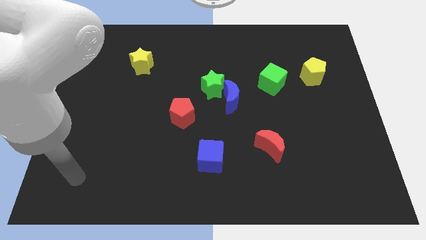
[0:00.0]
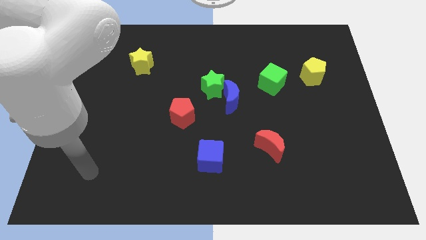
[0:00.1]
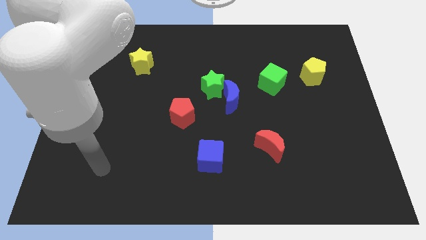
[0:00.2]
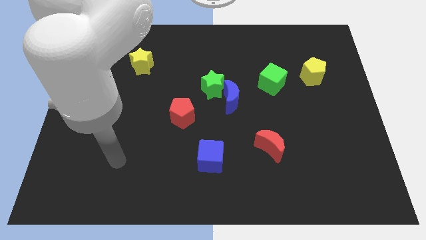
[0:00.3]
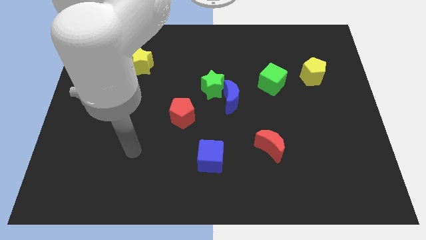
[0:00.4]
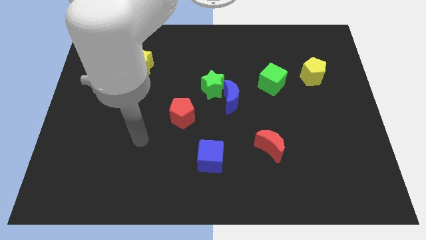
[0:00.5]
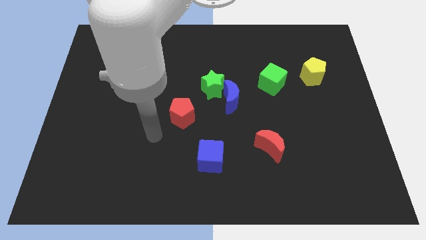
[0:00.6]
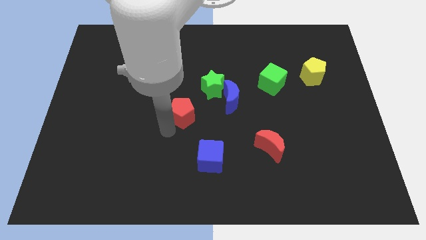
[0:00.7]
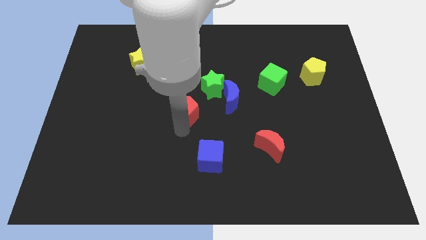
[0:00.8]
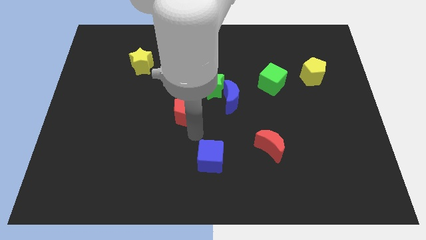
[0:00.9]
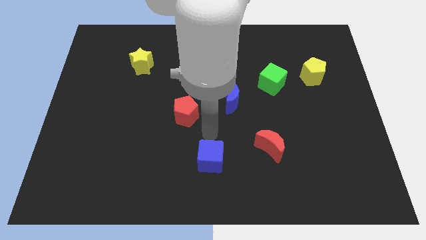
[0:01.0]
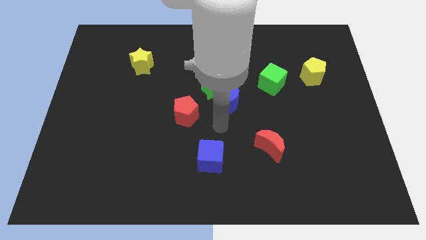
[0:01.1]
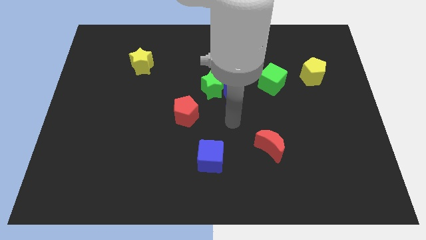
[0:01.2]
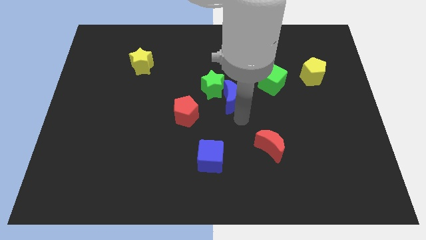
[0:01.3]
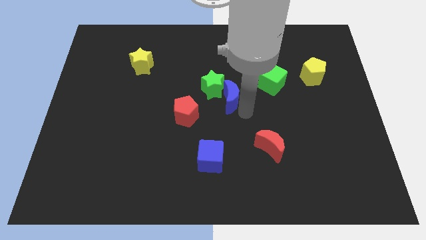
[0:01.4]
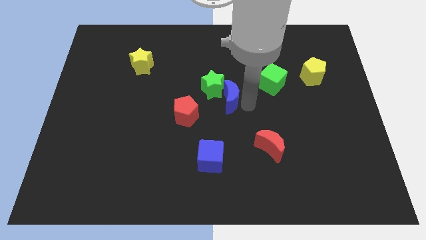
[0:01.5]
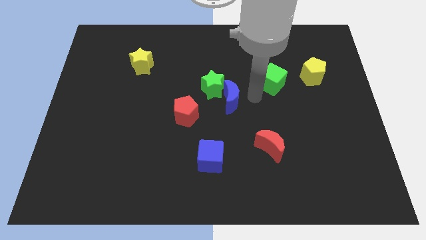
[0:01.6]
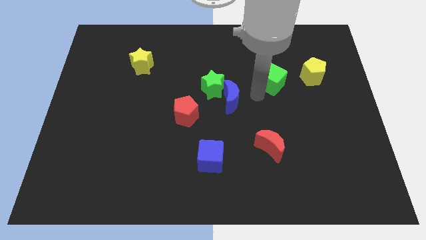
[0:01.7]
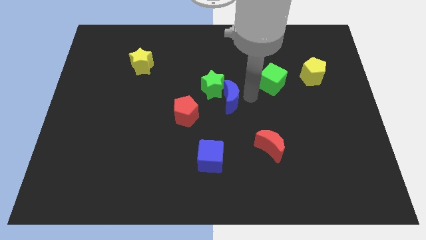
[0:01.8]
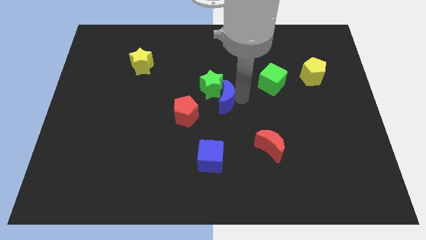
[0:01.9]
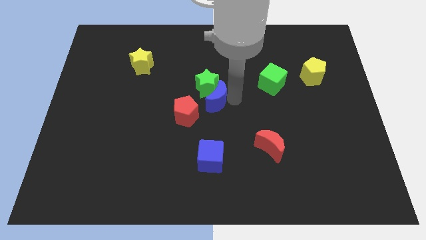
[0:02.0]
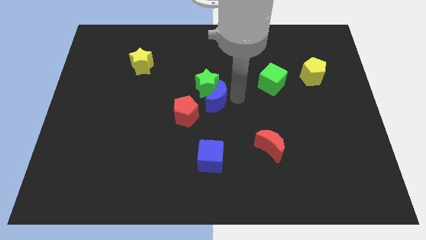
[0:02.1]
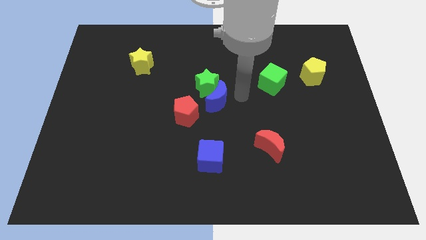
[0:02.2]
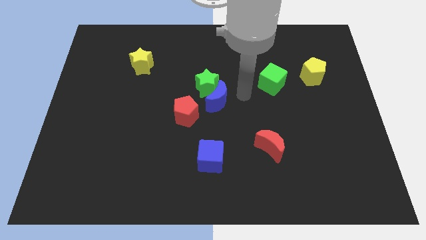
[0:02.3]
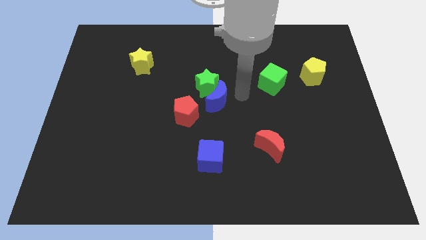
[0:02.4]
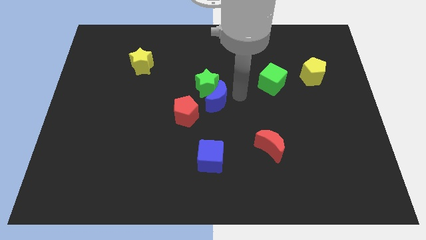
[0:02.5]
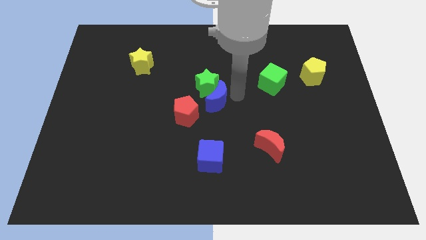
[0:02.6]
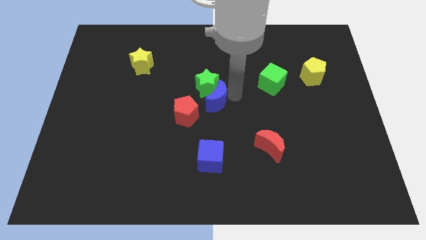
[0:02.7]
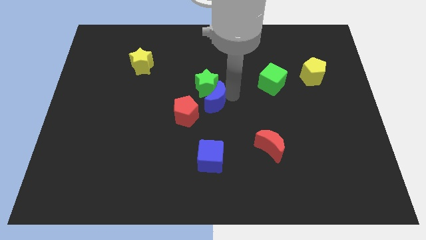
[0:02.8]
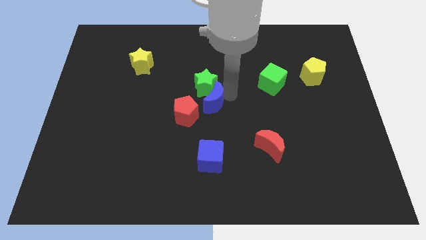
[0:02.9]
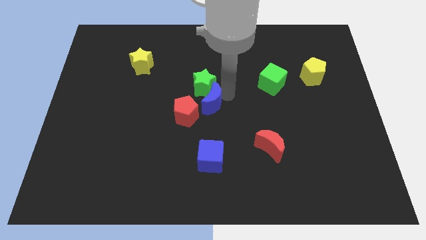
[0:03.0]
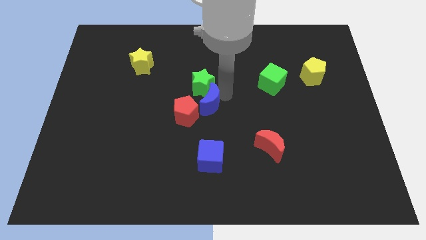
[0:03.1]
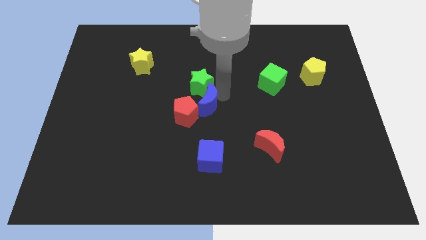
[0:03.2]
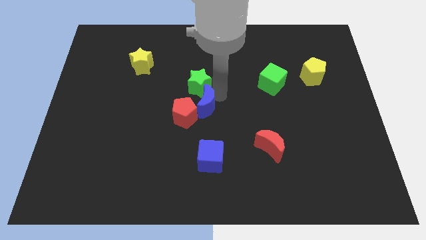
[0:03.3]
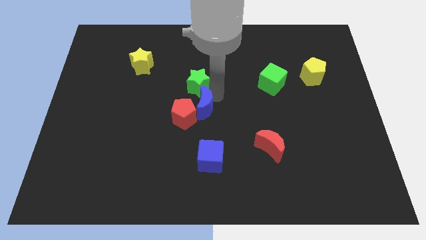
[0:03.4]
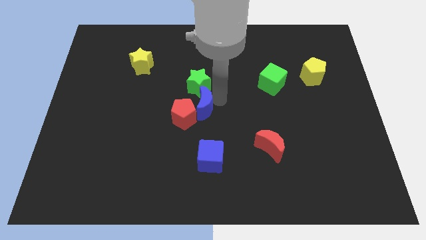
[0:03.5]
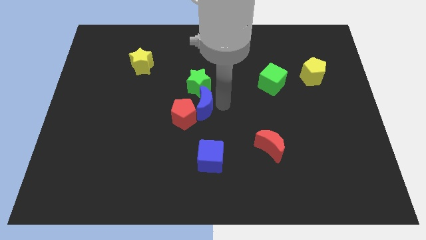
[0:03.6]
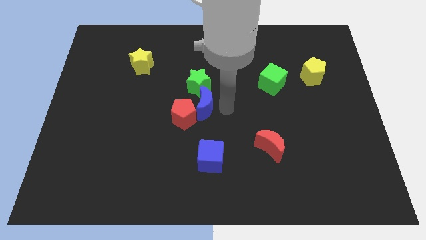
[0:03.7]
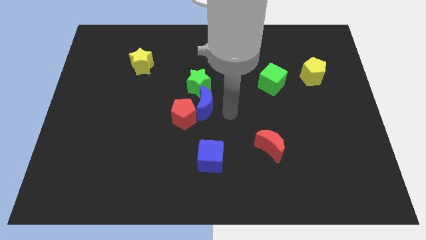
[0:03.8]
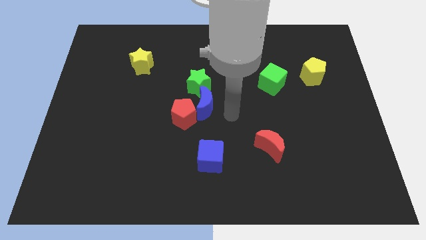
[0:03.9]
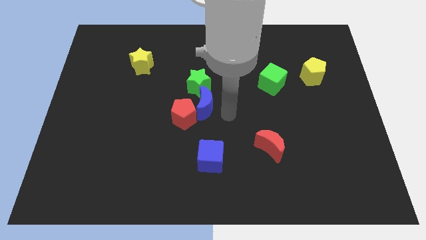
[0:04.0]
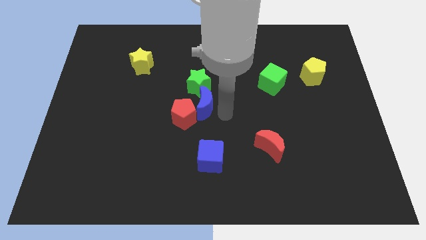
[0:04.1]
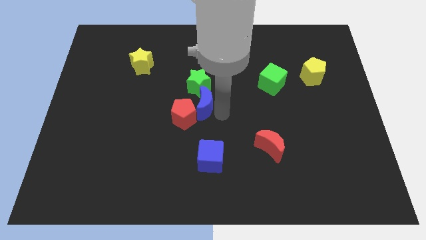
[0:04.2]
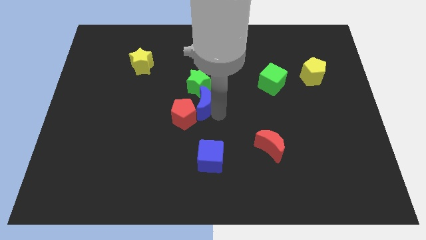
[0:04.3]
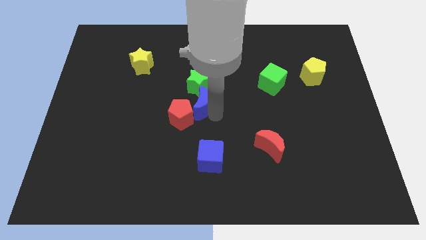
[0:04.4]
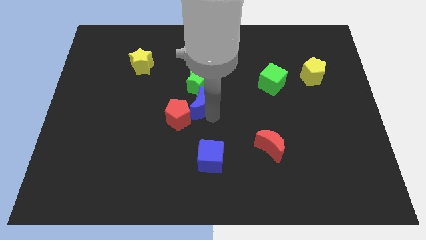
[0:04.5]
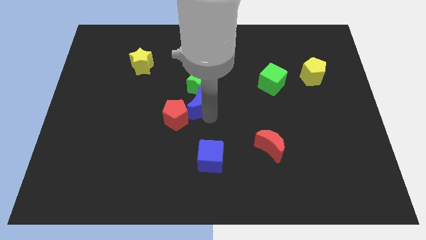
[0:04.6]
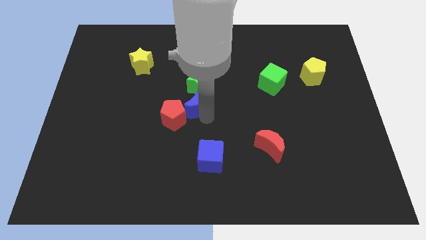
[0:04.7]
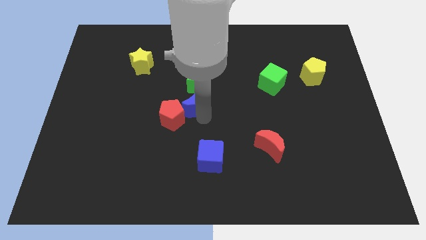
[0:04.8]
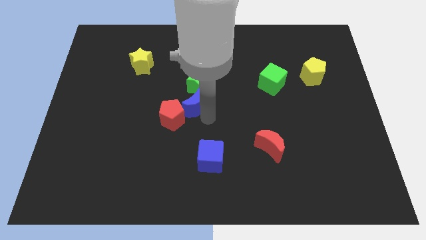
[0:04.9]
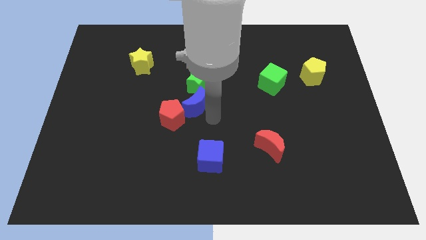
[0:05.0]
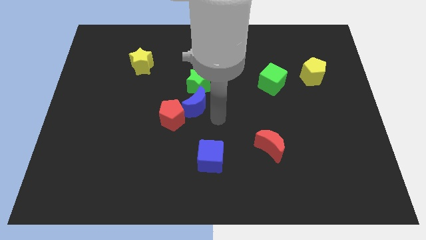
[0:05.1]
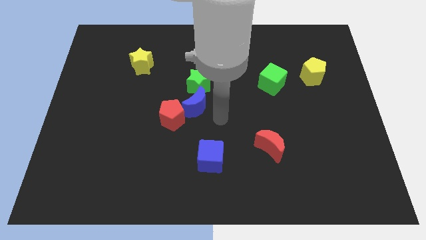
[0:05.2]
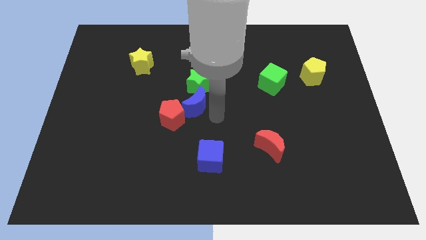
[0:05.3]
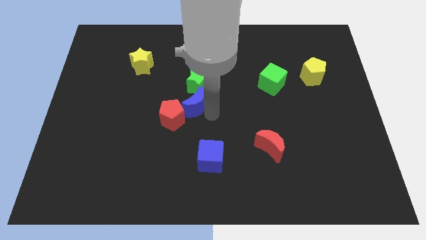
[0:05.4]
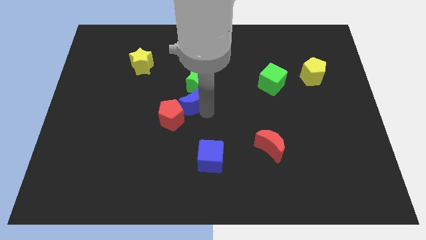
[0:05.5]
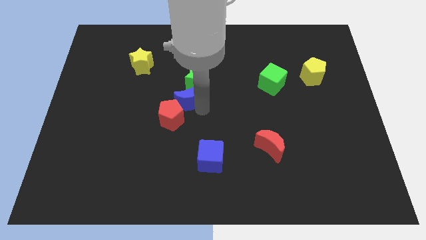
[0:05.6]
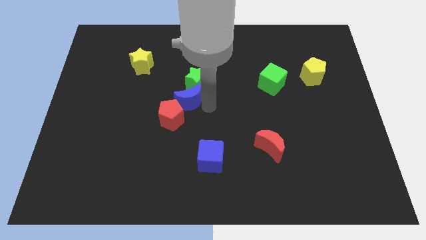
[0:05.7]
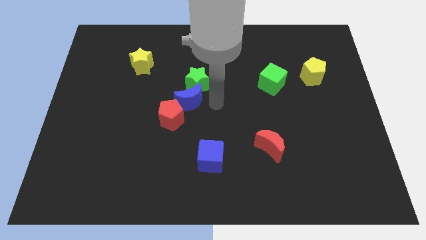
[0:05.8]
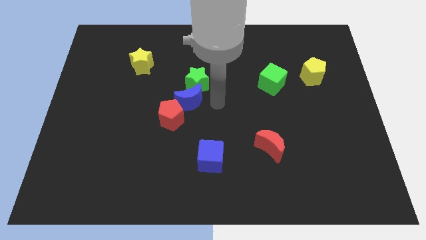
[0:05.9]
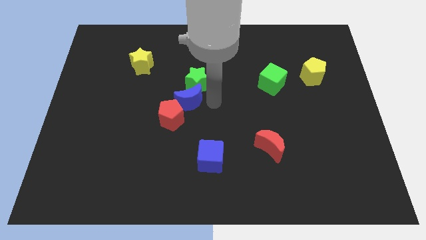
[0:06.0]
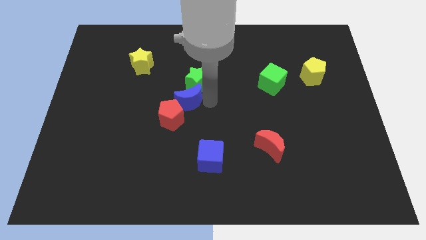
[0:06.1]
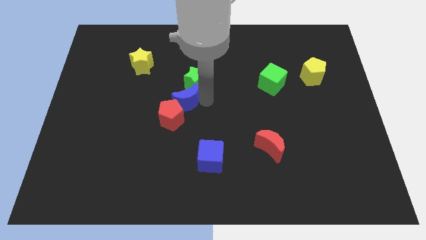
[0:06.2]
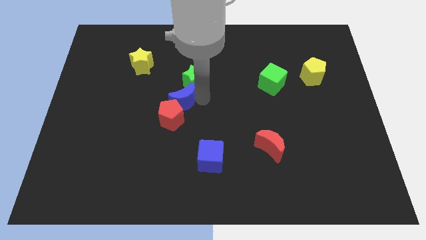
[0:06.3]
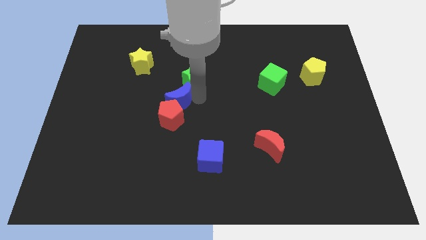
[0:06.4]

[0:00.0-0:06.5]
push the blue moon diagonally up and to the left of the red pentagon
